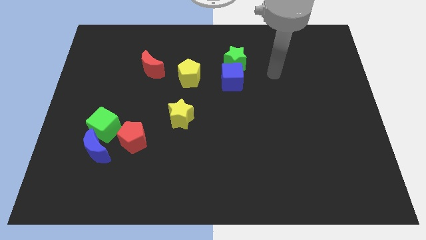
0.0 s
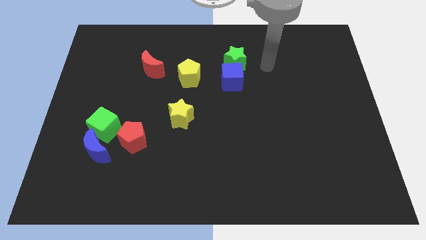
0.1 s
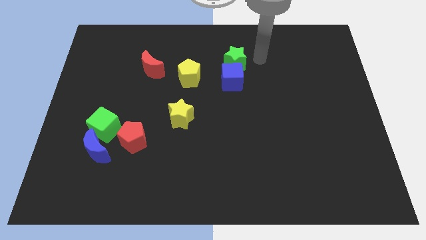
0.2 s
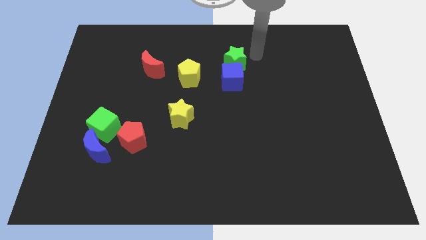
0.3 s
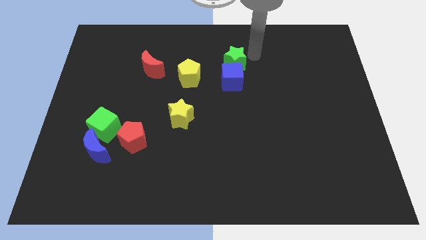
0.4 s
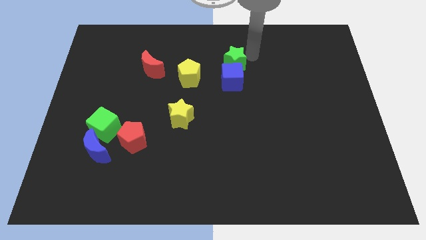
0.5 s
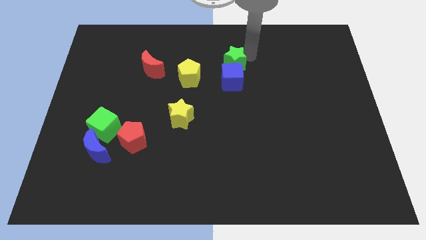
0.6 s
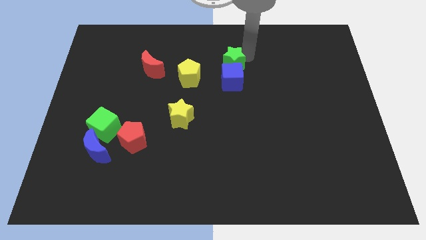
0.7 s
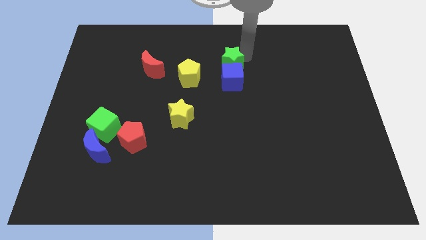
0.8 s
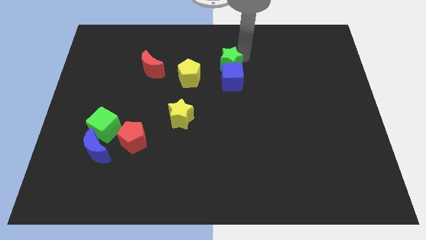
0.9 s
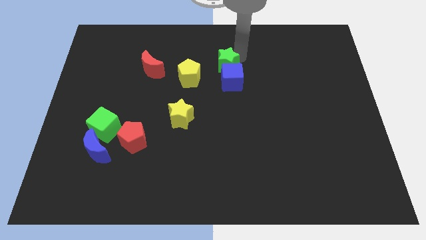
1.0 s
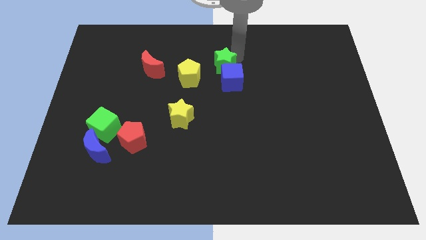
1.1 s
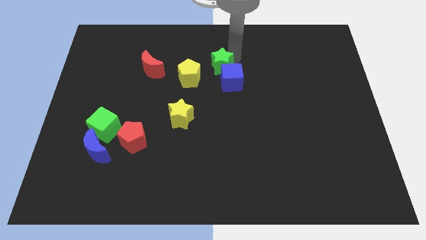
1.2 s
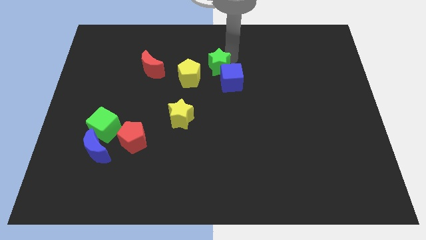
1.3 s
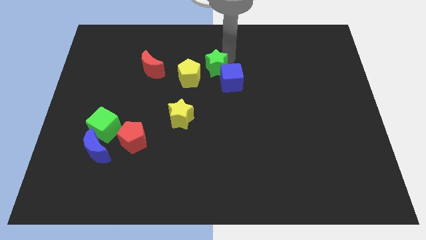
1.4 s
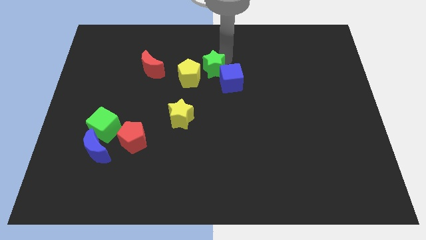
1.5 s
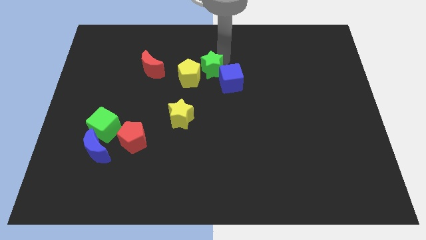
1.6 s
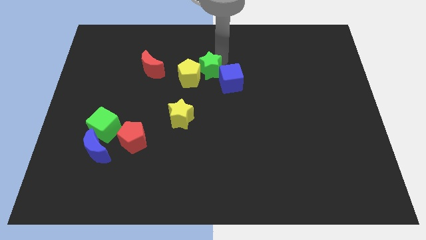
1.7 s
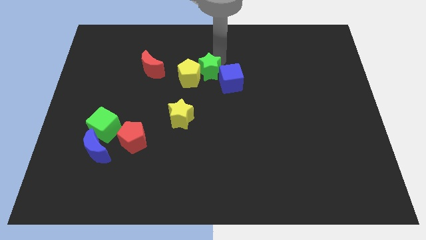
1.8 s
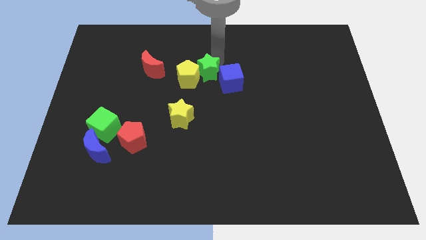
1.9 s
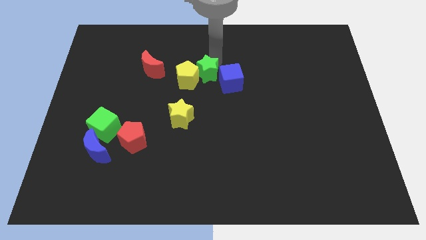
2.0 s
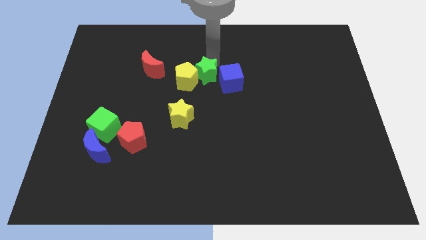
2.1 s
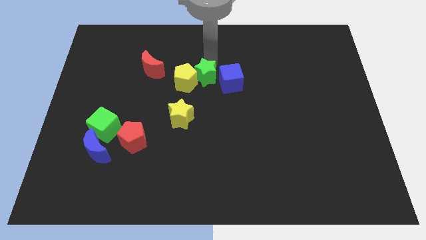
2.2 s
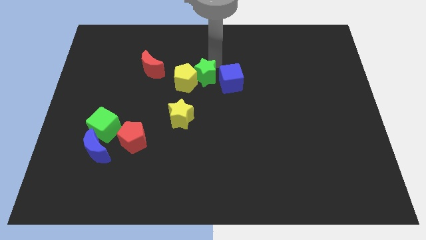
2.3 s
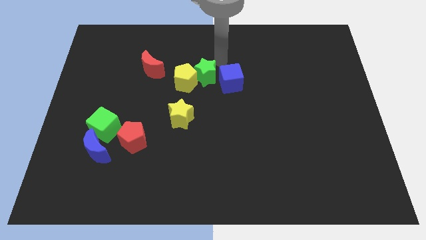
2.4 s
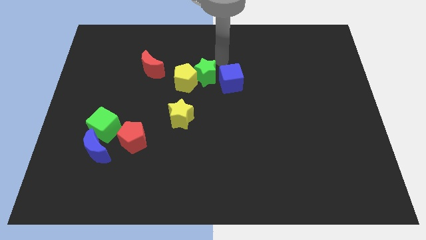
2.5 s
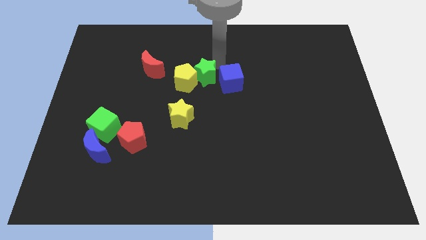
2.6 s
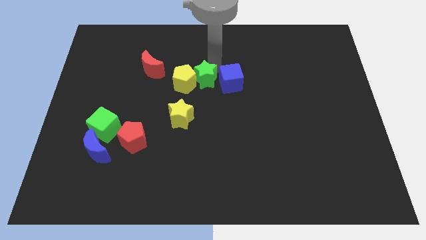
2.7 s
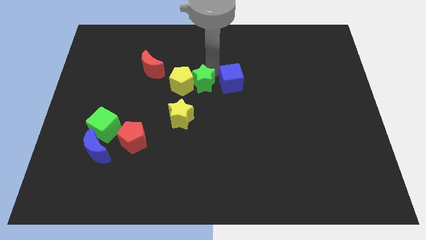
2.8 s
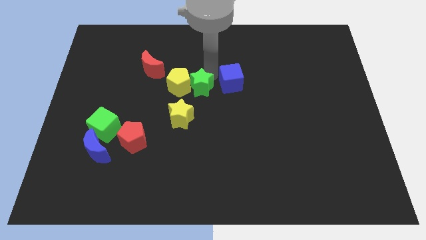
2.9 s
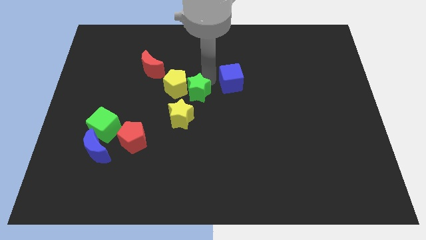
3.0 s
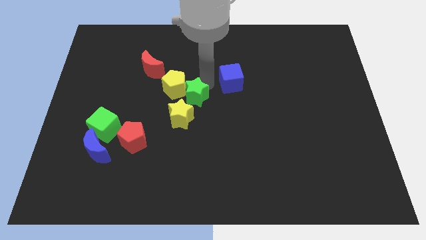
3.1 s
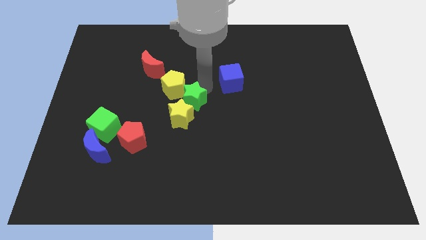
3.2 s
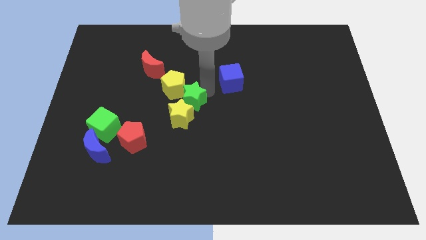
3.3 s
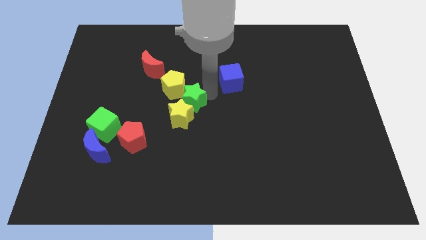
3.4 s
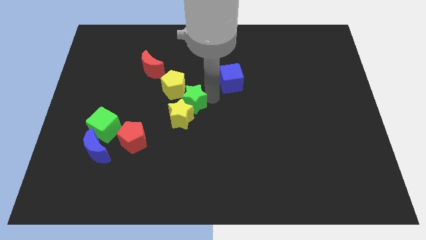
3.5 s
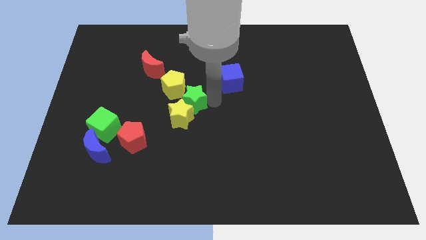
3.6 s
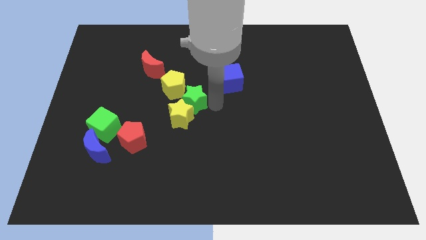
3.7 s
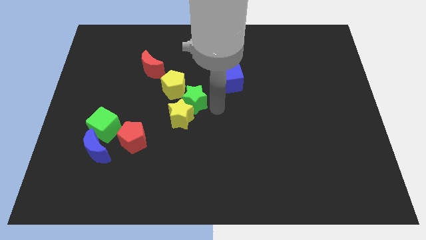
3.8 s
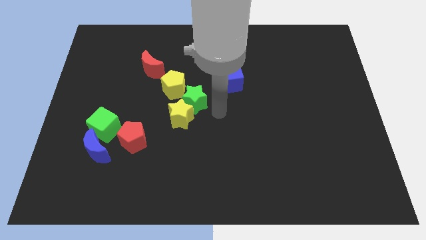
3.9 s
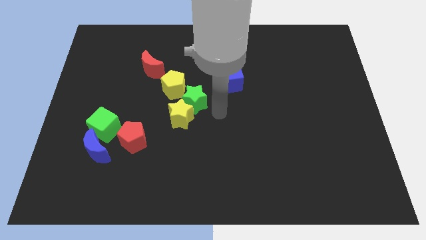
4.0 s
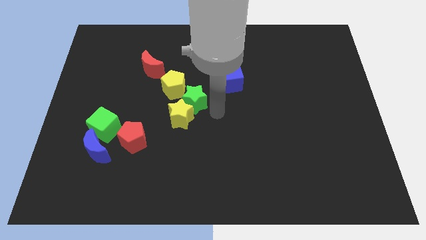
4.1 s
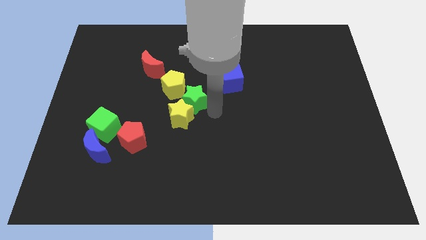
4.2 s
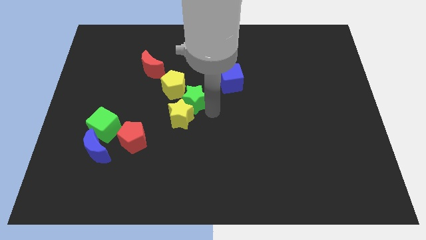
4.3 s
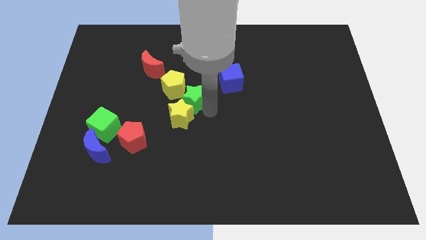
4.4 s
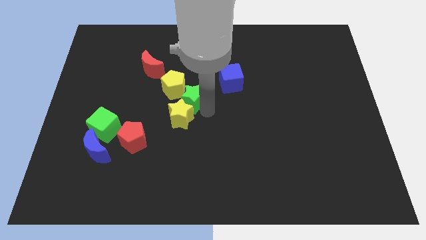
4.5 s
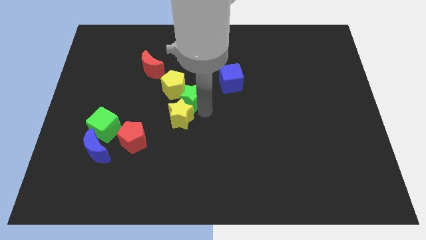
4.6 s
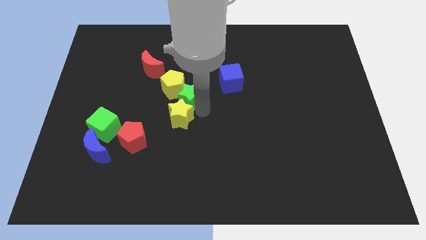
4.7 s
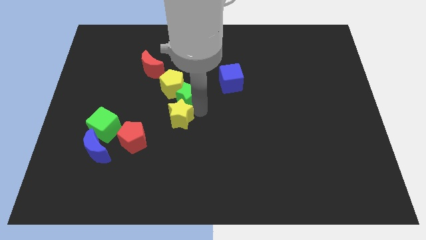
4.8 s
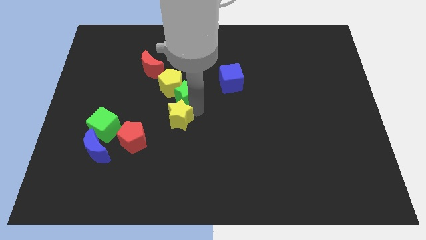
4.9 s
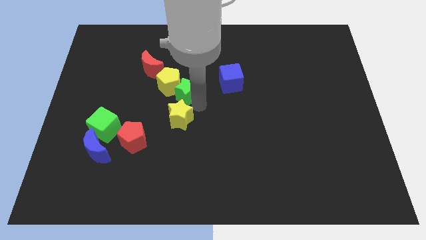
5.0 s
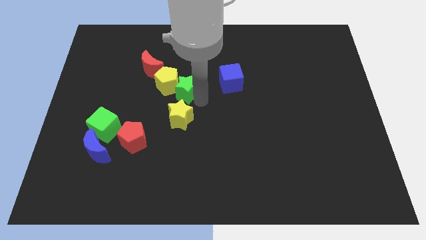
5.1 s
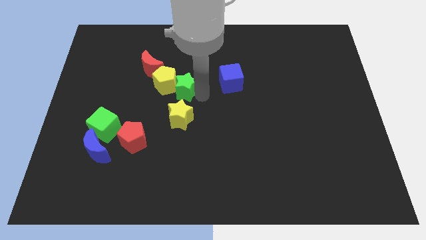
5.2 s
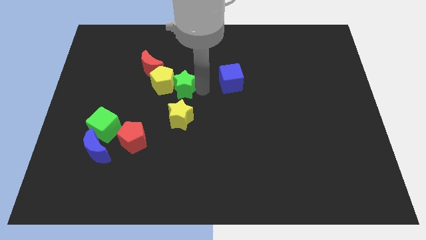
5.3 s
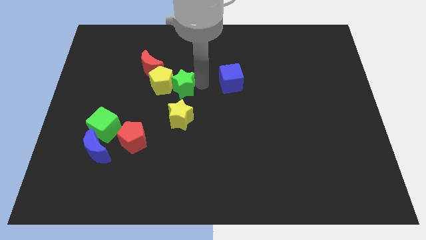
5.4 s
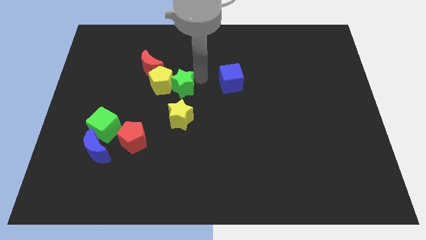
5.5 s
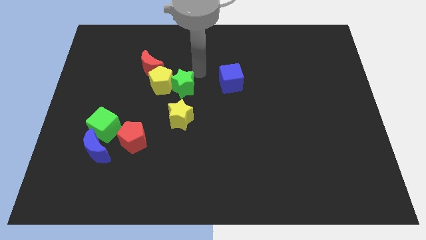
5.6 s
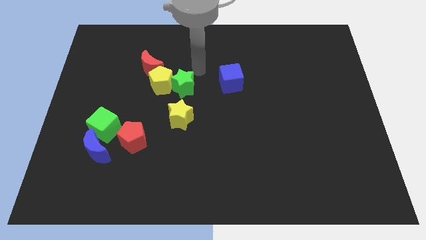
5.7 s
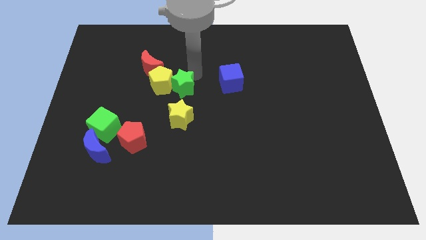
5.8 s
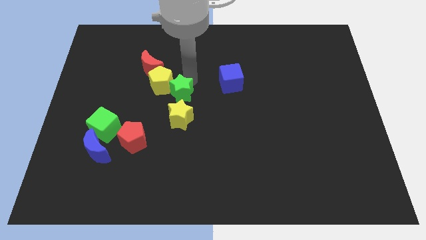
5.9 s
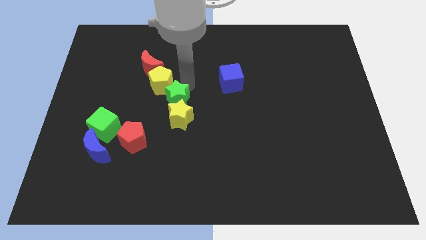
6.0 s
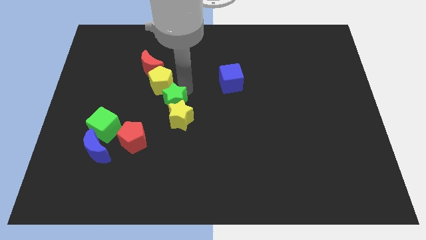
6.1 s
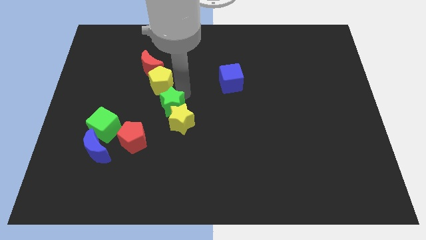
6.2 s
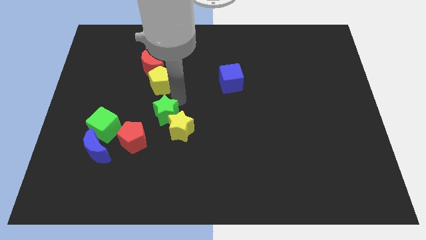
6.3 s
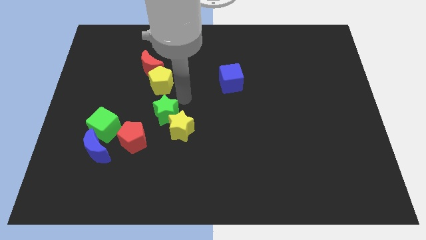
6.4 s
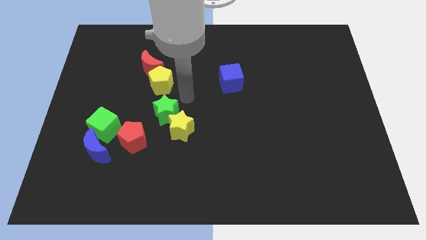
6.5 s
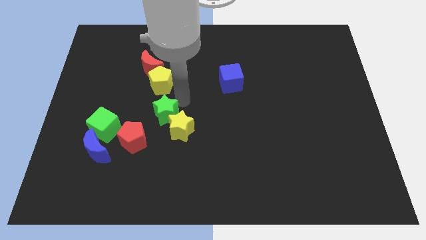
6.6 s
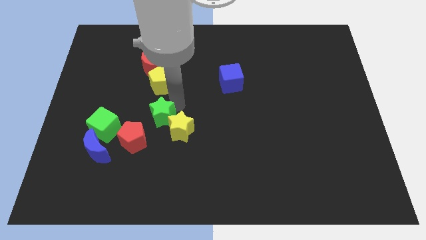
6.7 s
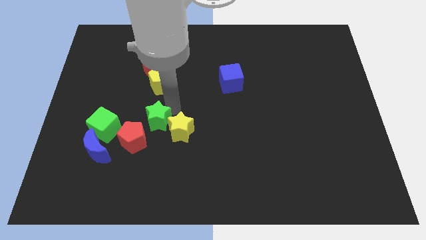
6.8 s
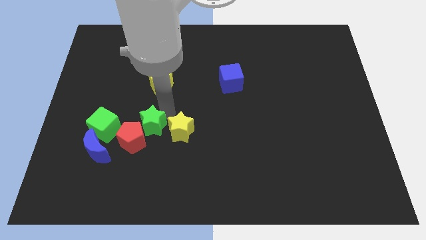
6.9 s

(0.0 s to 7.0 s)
move the green star to the red pentagon

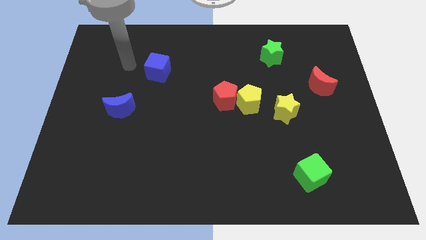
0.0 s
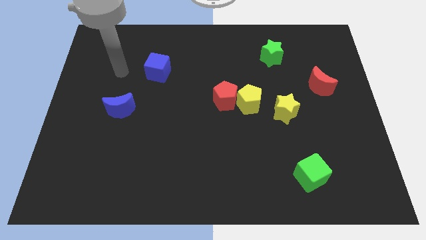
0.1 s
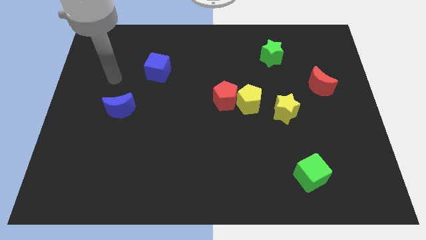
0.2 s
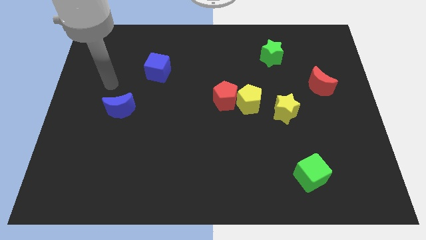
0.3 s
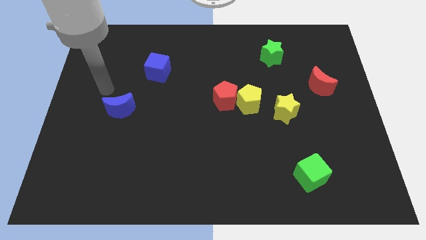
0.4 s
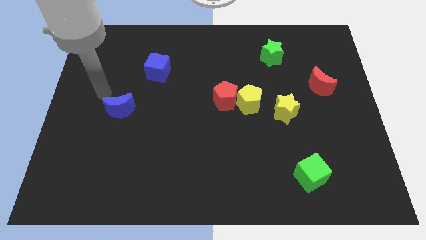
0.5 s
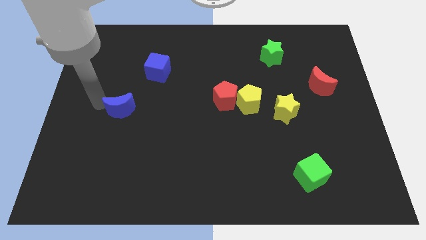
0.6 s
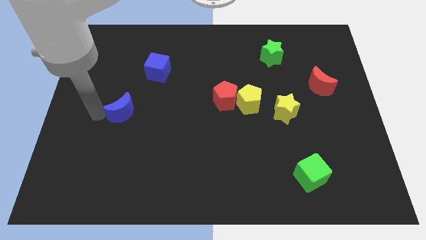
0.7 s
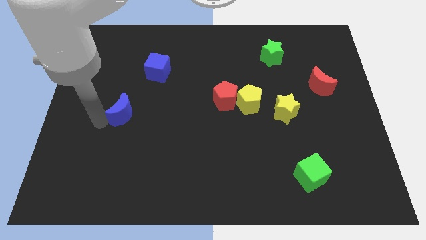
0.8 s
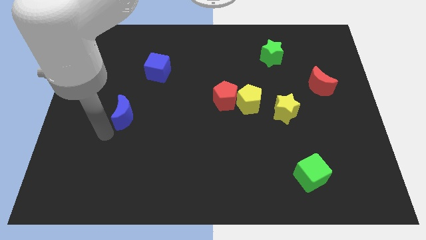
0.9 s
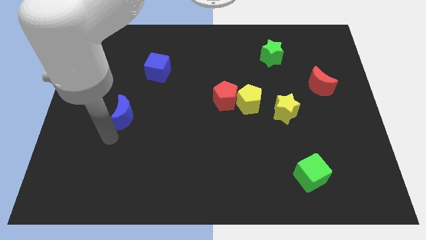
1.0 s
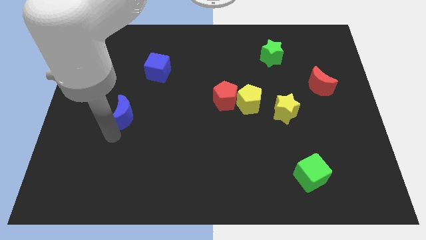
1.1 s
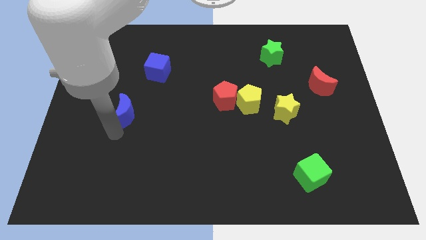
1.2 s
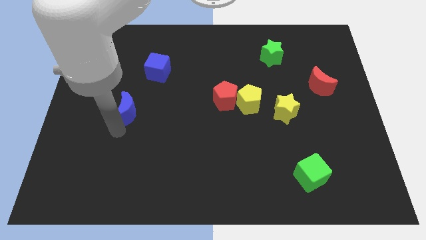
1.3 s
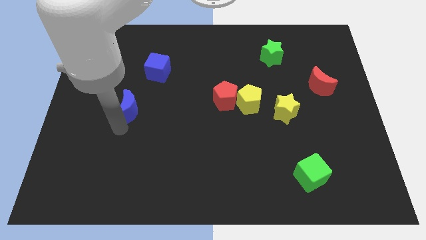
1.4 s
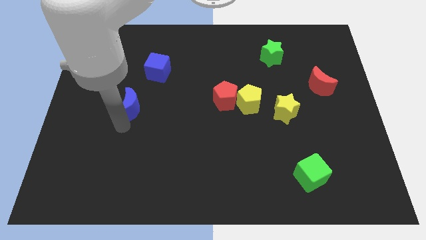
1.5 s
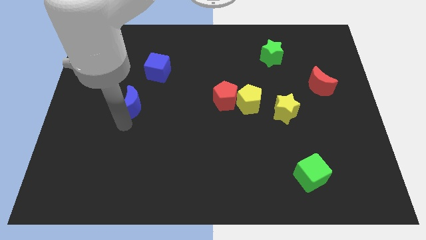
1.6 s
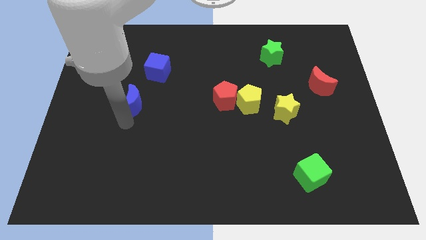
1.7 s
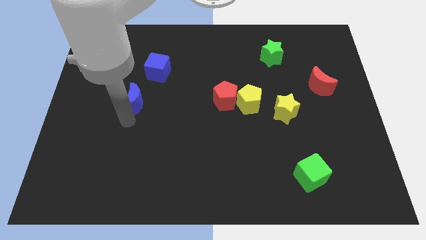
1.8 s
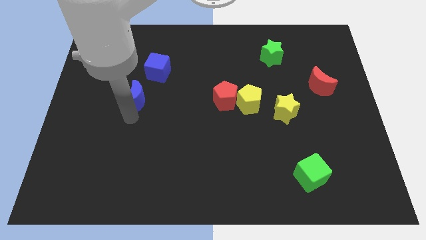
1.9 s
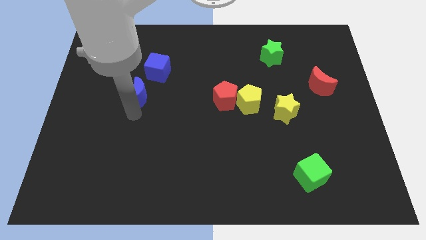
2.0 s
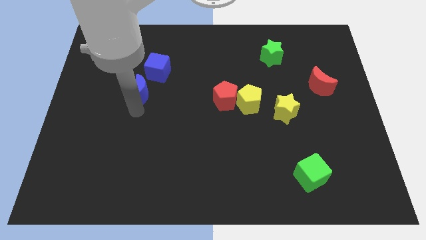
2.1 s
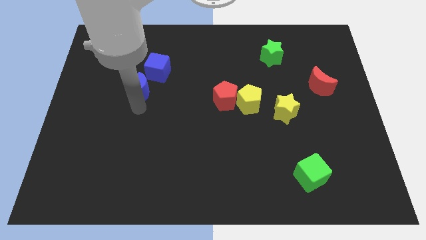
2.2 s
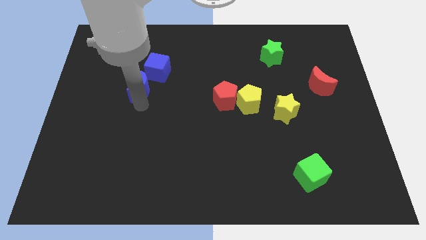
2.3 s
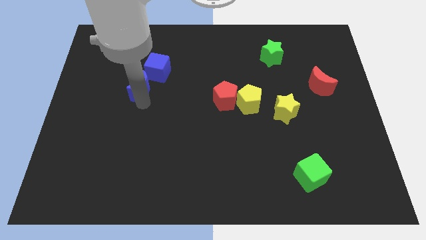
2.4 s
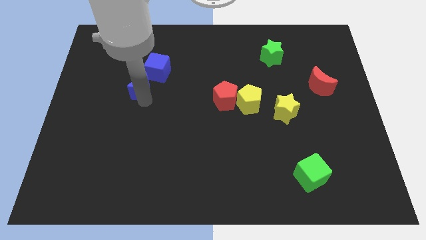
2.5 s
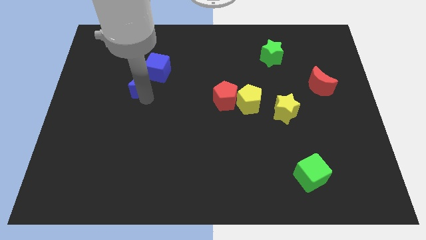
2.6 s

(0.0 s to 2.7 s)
push the blue moon close to the blue cube
